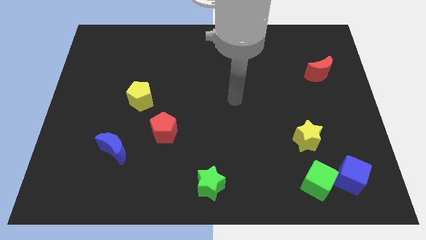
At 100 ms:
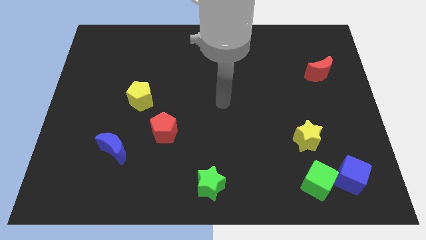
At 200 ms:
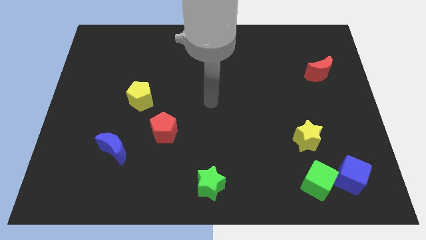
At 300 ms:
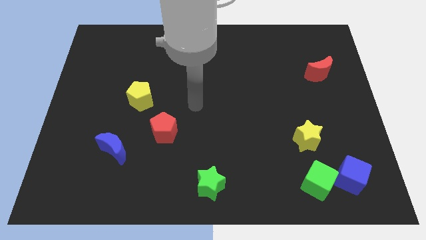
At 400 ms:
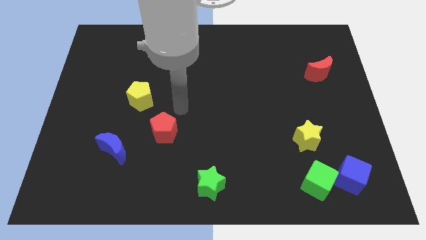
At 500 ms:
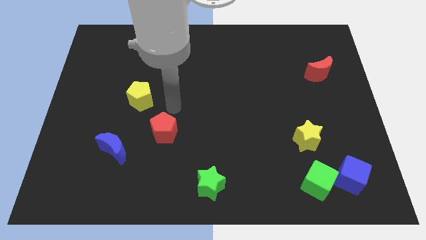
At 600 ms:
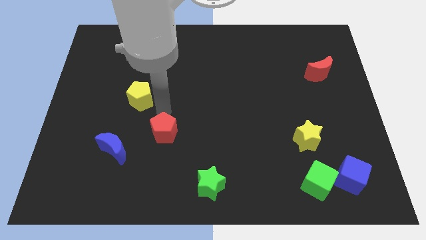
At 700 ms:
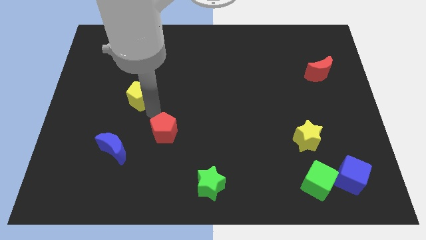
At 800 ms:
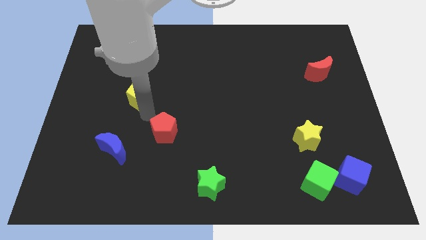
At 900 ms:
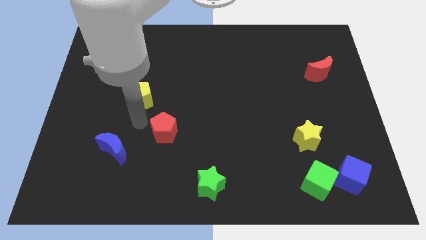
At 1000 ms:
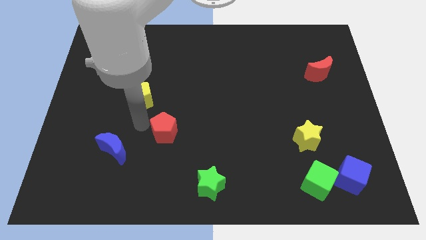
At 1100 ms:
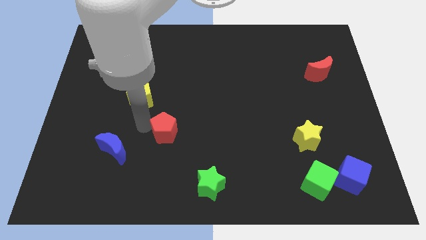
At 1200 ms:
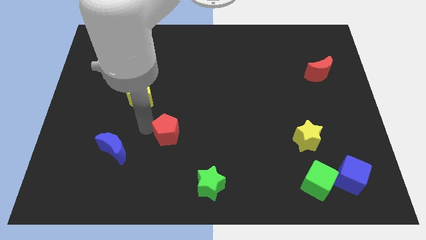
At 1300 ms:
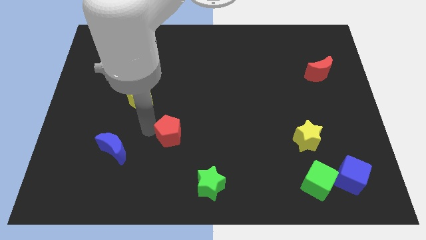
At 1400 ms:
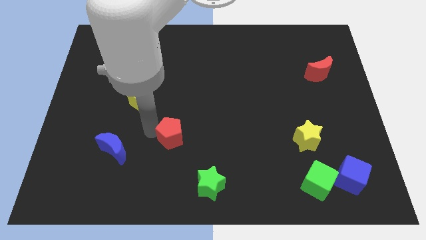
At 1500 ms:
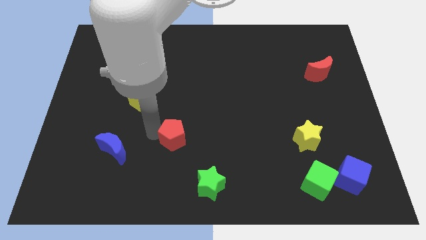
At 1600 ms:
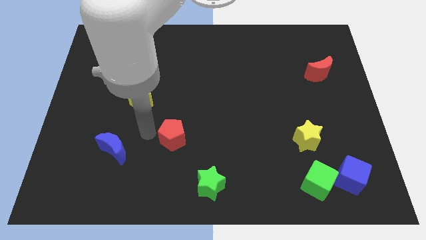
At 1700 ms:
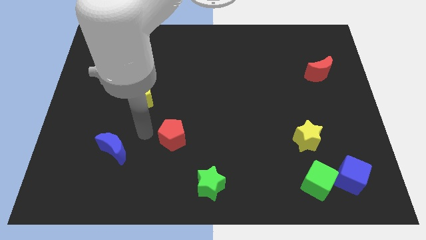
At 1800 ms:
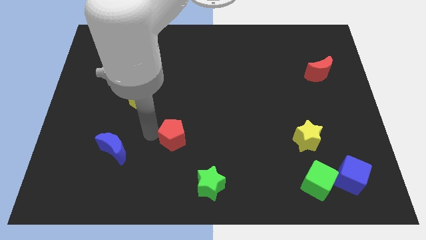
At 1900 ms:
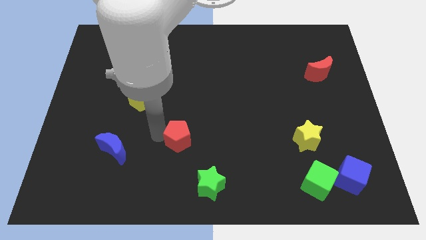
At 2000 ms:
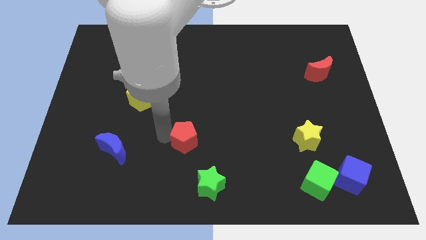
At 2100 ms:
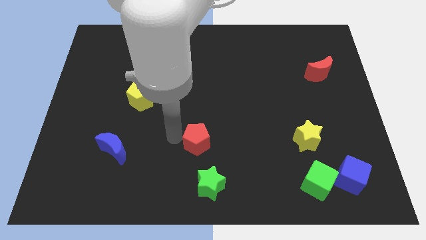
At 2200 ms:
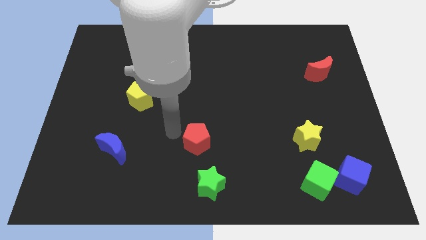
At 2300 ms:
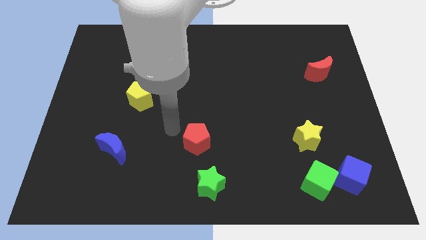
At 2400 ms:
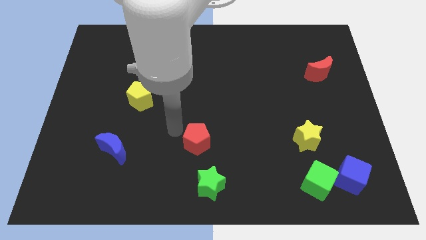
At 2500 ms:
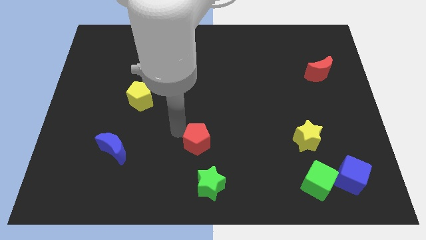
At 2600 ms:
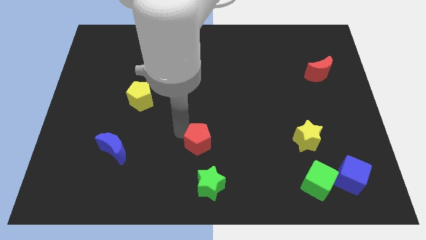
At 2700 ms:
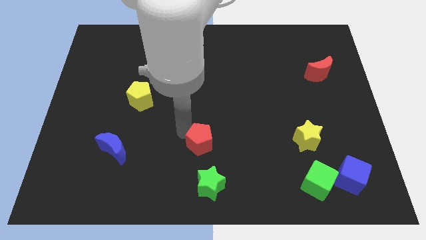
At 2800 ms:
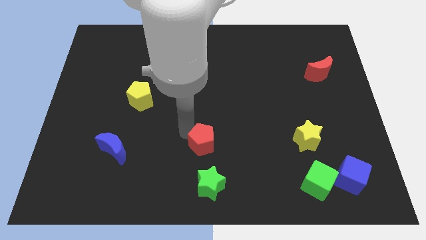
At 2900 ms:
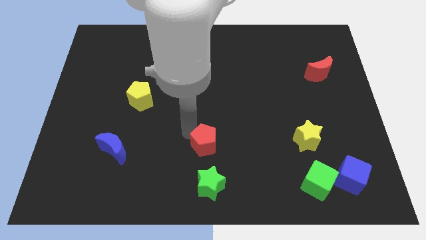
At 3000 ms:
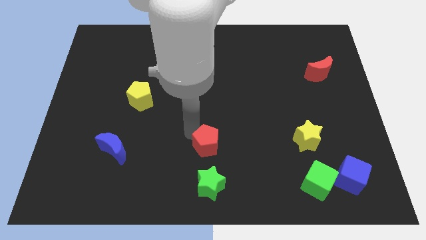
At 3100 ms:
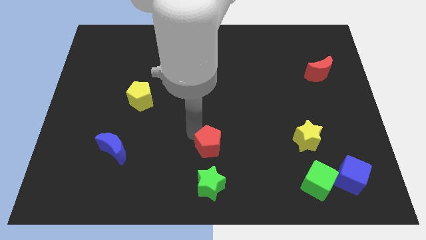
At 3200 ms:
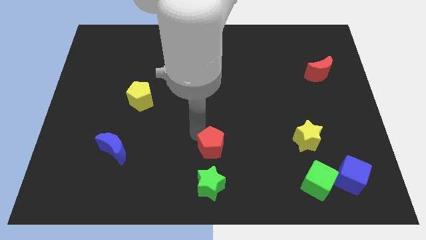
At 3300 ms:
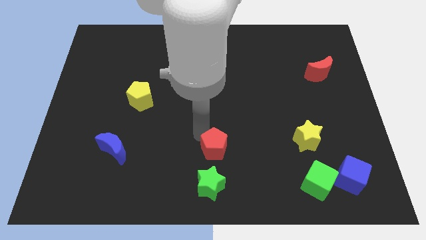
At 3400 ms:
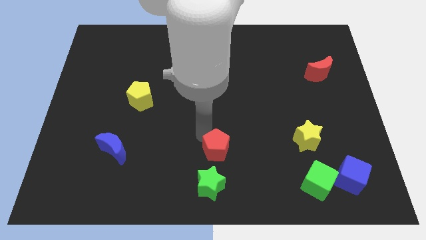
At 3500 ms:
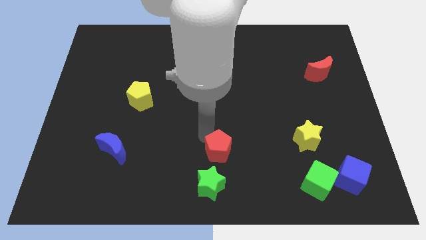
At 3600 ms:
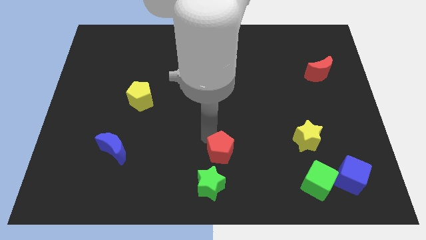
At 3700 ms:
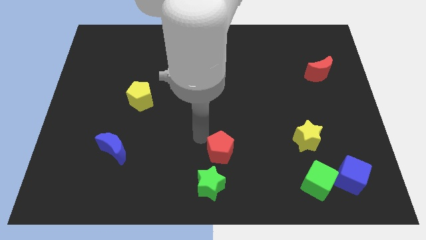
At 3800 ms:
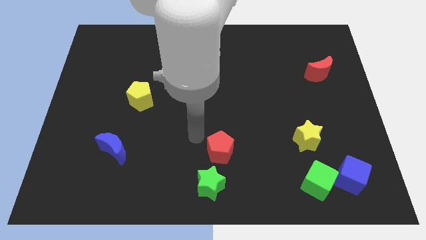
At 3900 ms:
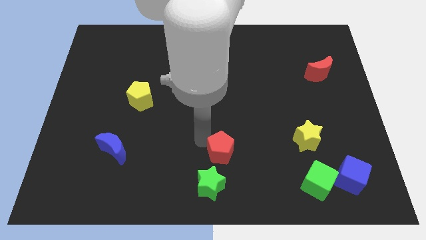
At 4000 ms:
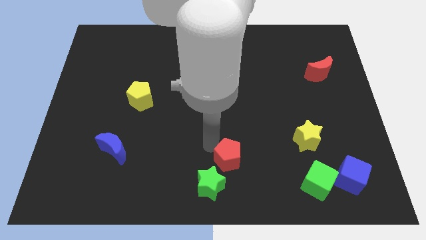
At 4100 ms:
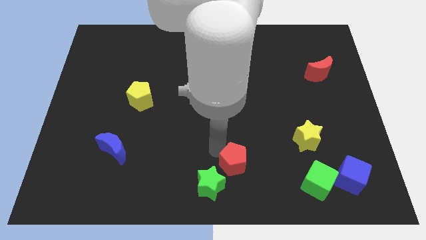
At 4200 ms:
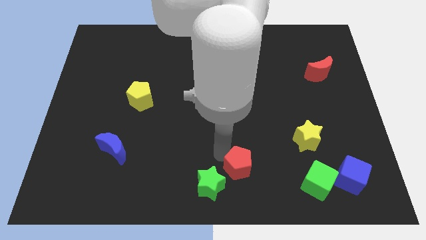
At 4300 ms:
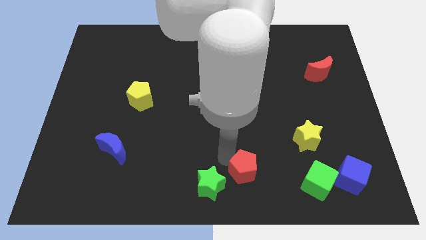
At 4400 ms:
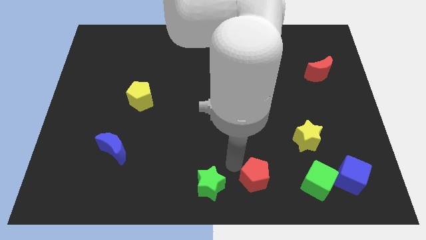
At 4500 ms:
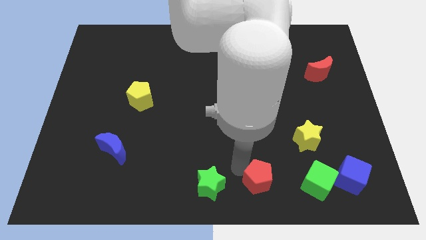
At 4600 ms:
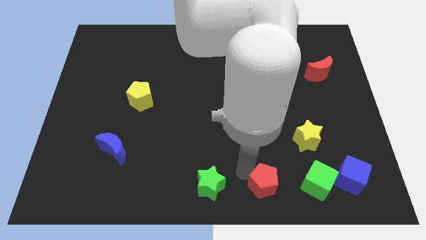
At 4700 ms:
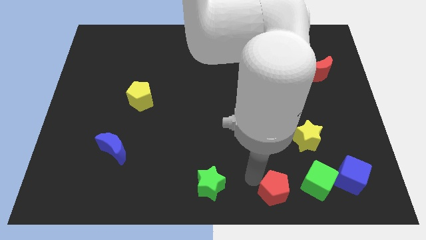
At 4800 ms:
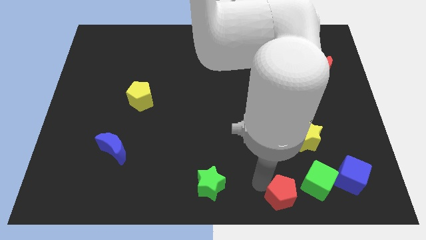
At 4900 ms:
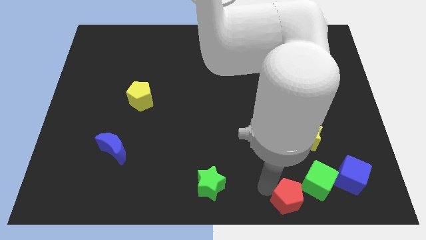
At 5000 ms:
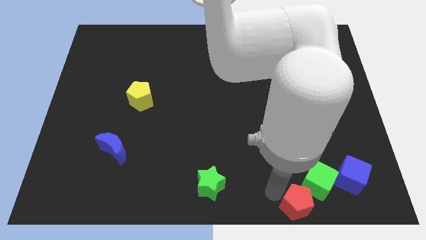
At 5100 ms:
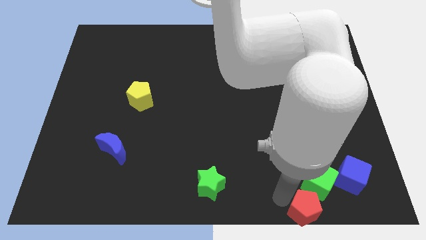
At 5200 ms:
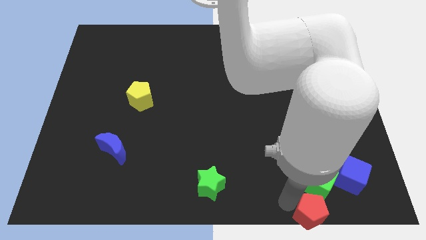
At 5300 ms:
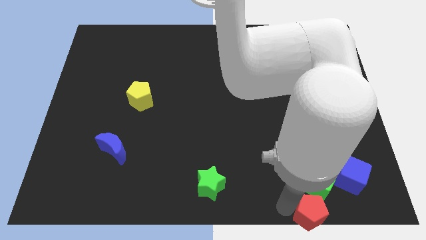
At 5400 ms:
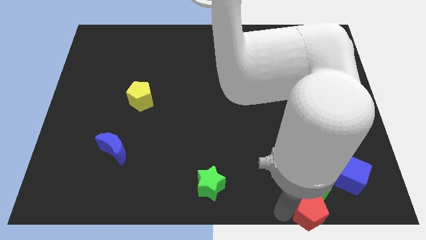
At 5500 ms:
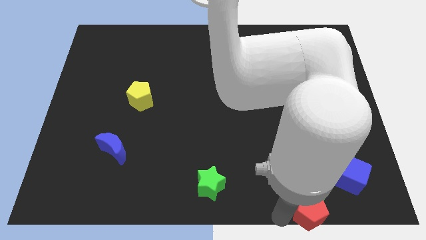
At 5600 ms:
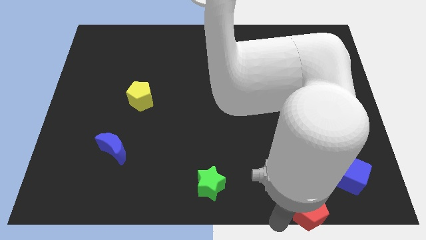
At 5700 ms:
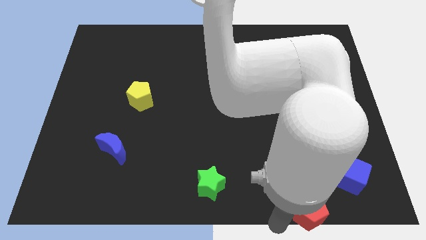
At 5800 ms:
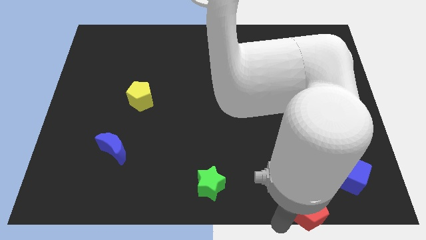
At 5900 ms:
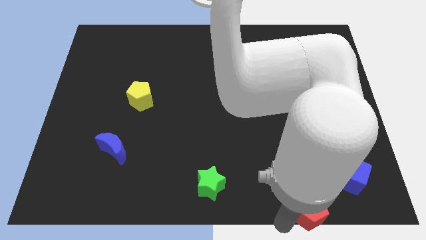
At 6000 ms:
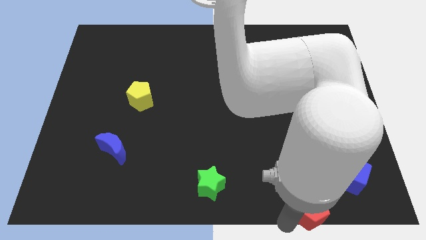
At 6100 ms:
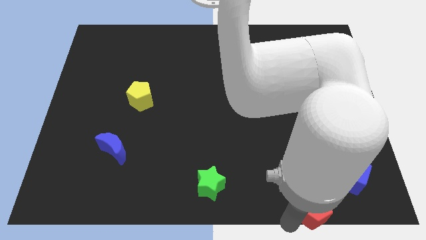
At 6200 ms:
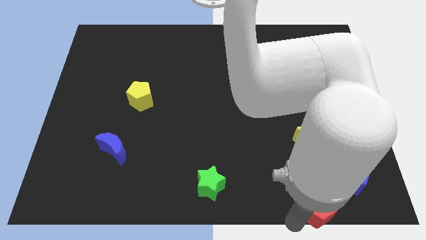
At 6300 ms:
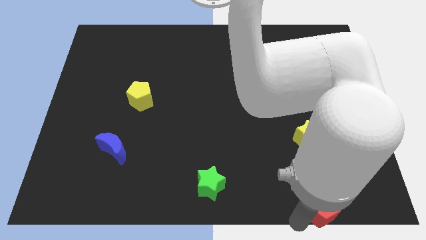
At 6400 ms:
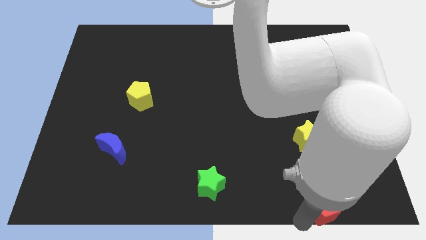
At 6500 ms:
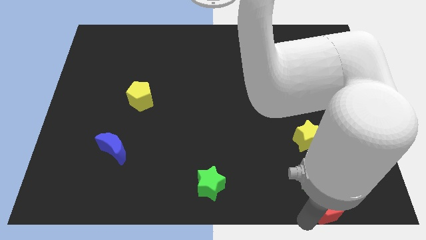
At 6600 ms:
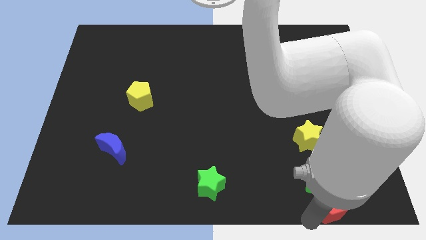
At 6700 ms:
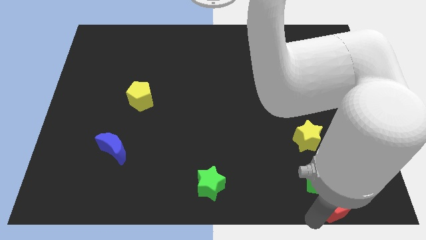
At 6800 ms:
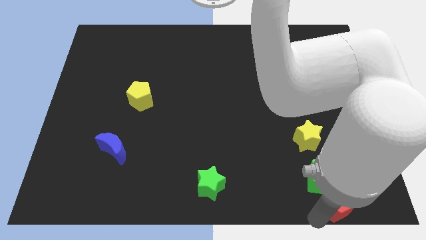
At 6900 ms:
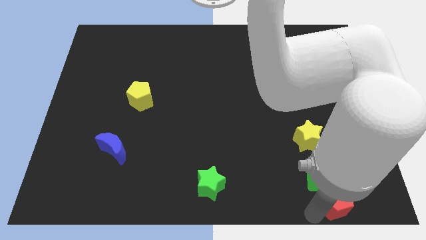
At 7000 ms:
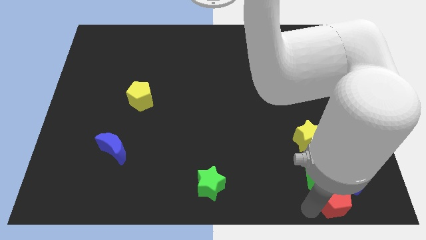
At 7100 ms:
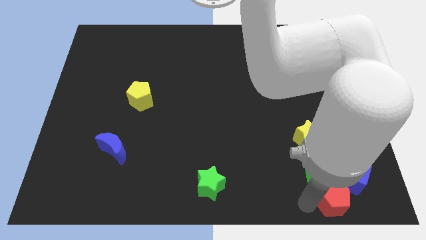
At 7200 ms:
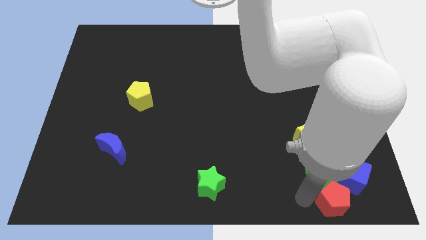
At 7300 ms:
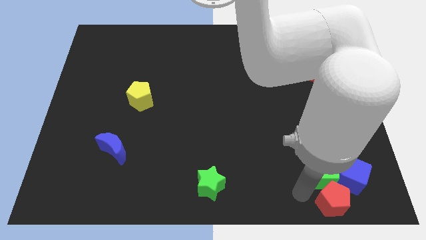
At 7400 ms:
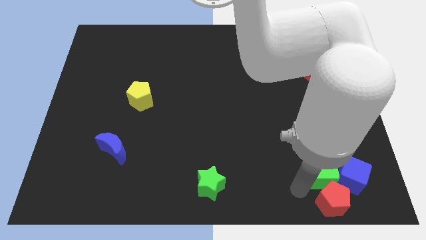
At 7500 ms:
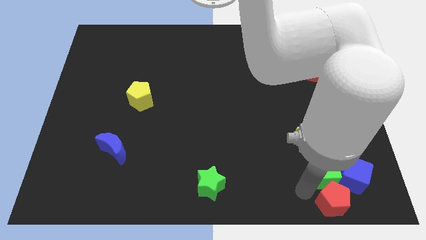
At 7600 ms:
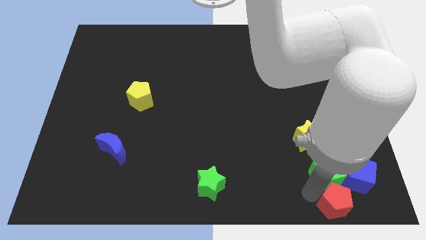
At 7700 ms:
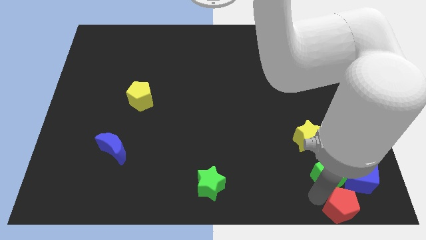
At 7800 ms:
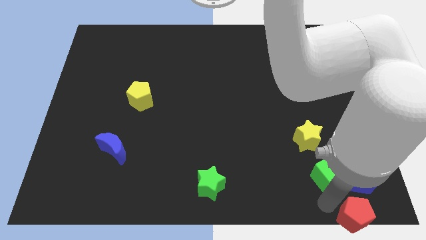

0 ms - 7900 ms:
push the red pentagon to the bottom right corner
